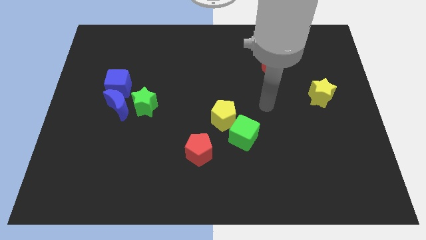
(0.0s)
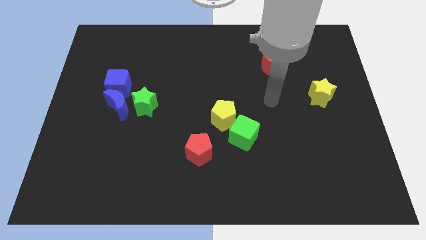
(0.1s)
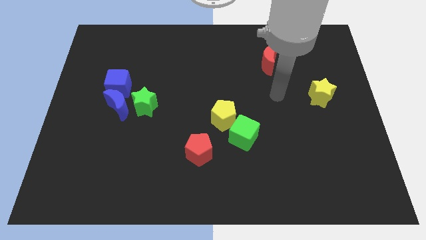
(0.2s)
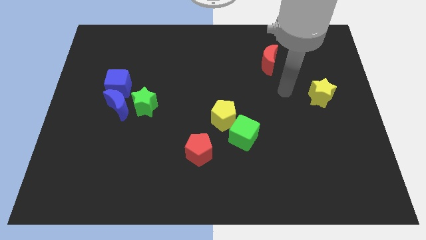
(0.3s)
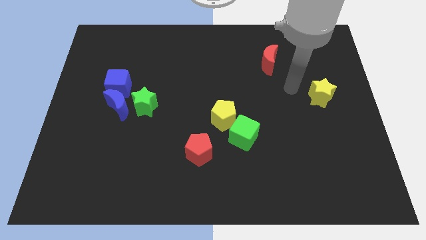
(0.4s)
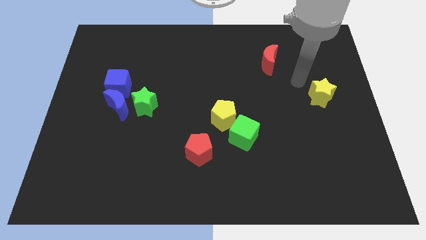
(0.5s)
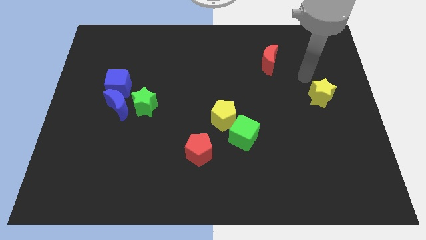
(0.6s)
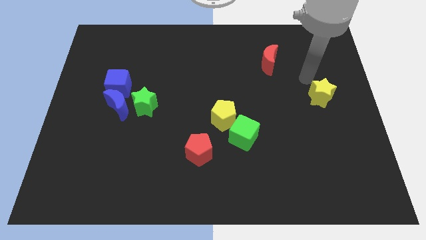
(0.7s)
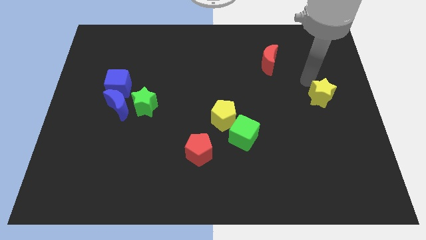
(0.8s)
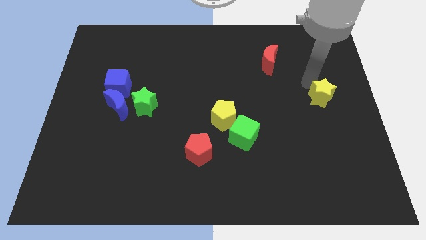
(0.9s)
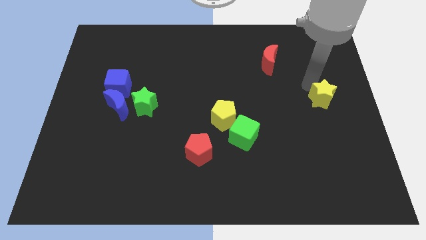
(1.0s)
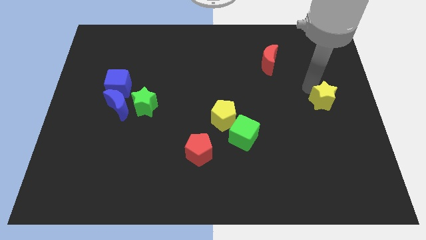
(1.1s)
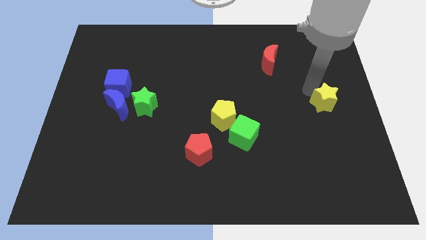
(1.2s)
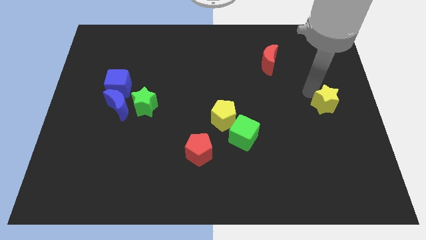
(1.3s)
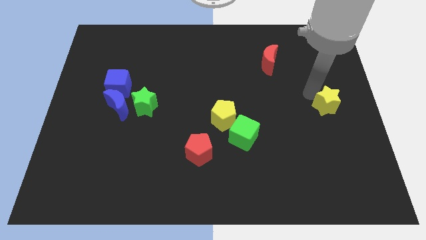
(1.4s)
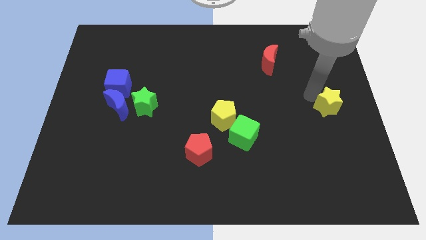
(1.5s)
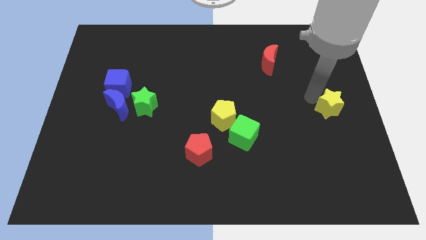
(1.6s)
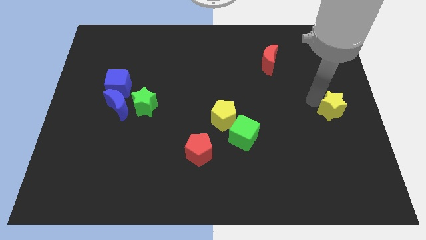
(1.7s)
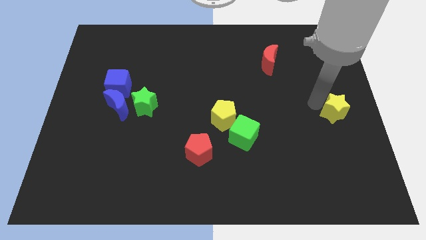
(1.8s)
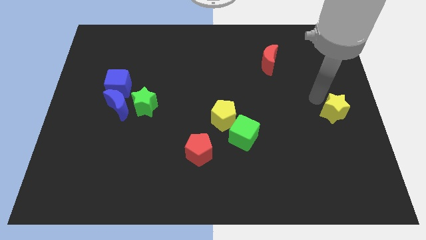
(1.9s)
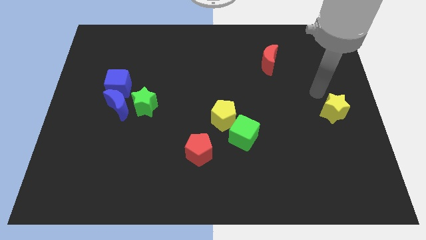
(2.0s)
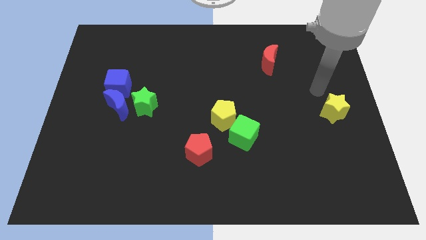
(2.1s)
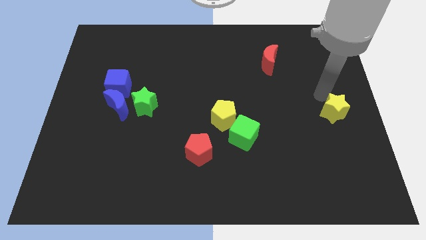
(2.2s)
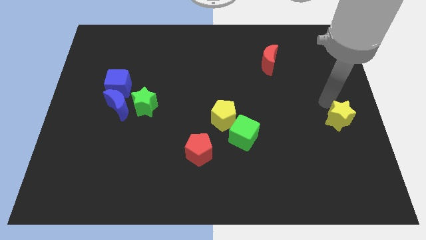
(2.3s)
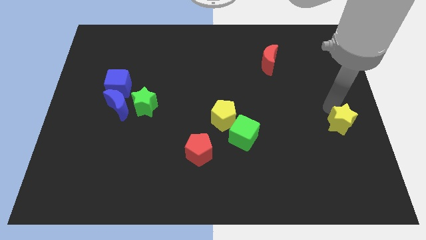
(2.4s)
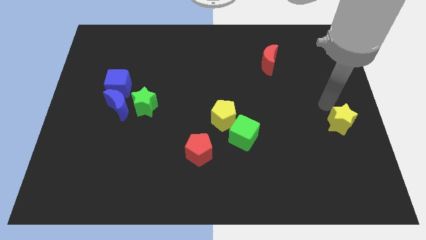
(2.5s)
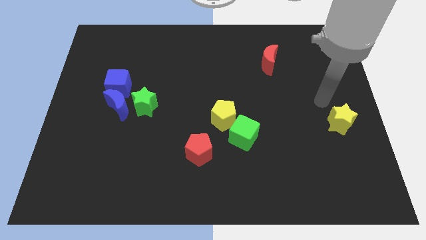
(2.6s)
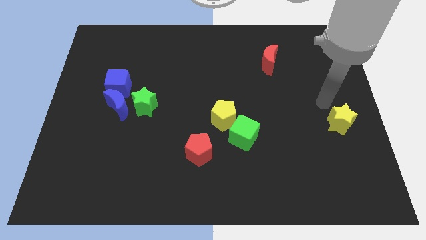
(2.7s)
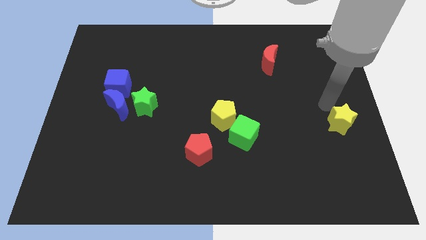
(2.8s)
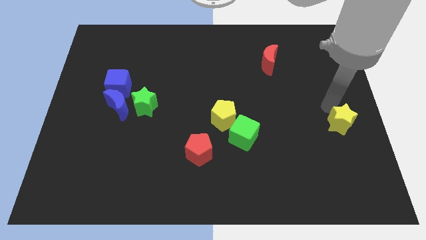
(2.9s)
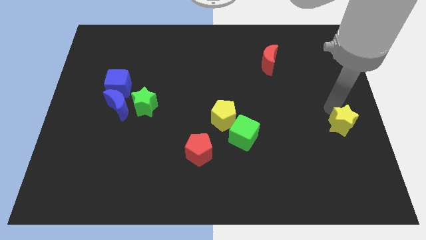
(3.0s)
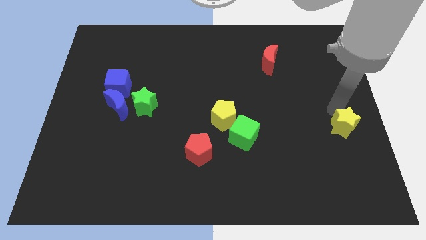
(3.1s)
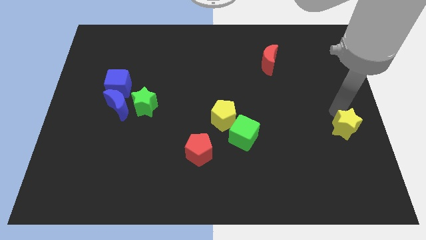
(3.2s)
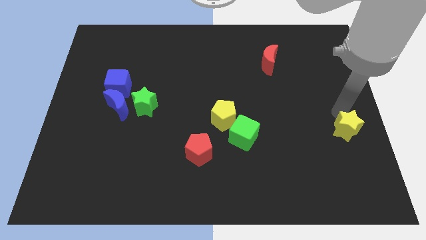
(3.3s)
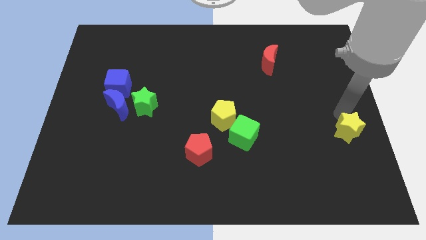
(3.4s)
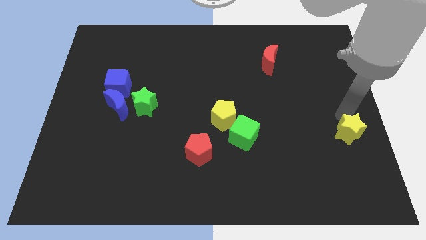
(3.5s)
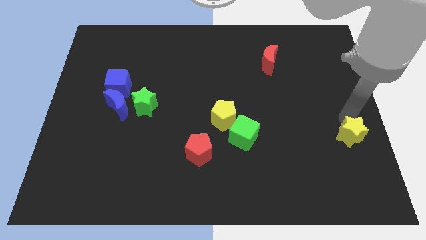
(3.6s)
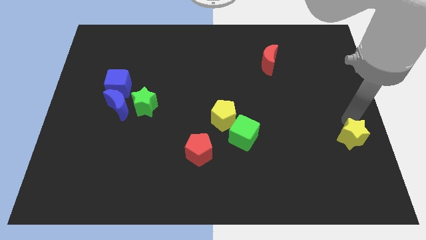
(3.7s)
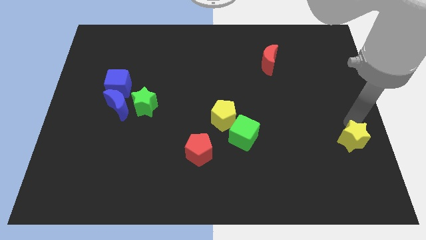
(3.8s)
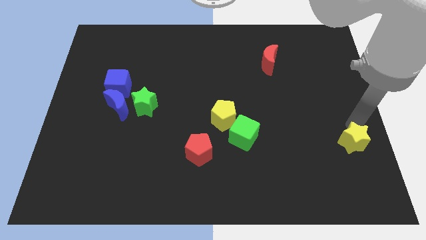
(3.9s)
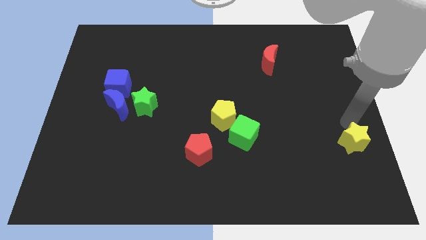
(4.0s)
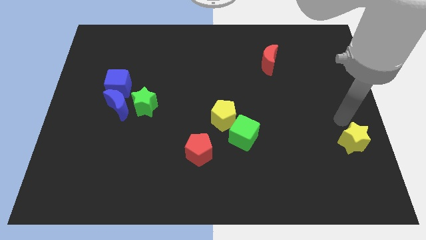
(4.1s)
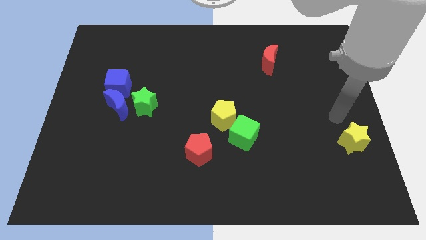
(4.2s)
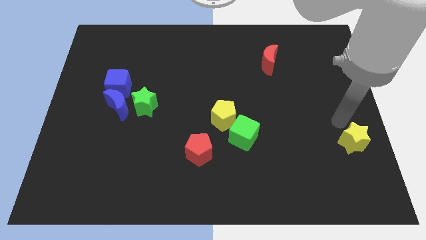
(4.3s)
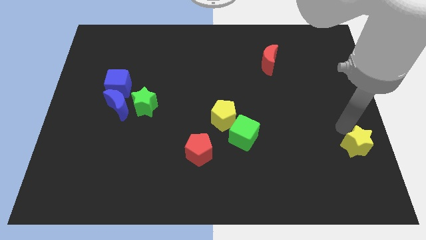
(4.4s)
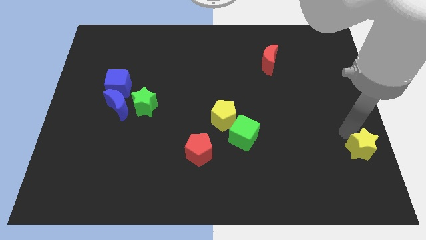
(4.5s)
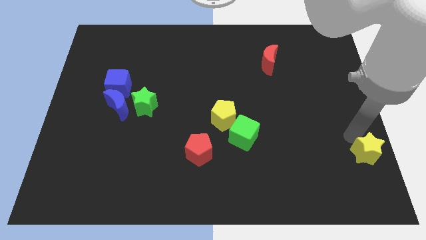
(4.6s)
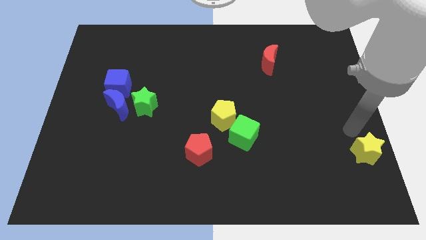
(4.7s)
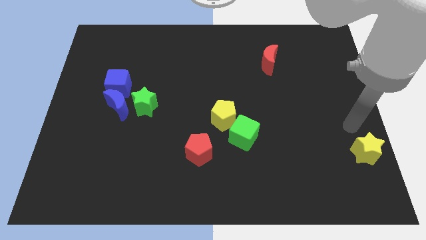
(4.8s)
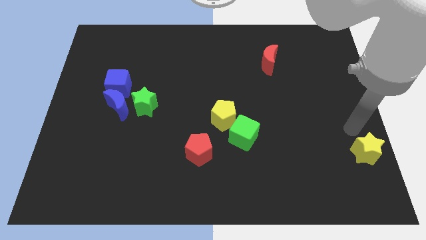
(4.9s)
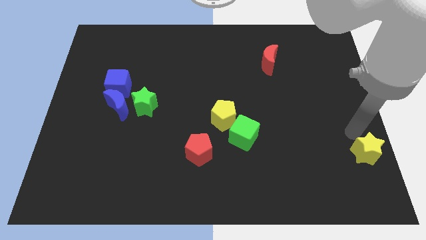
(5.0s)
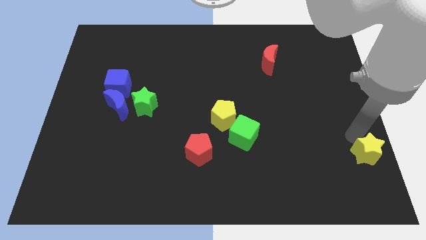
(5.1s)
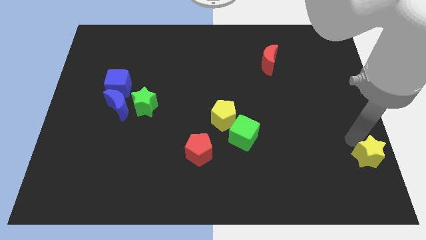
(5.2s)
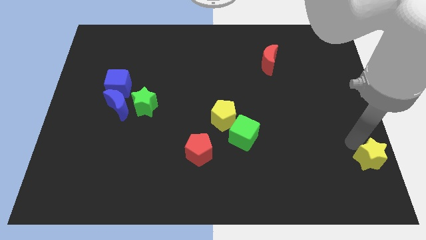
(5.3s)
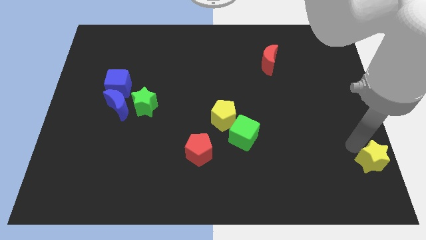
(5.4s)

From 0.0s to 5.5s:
put the yellow star to the bottom right corner

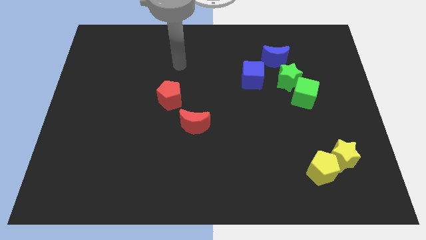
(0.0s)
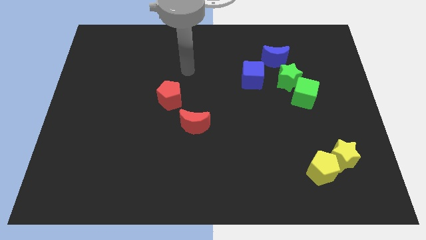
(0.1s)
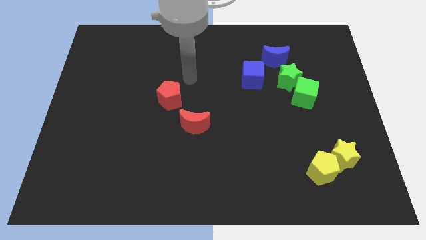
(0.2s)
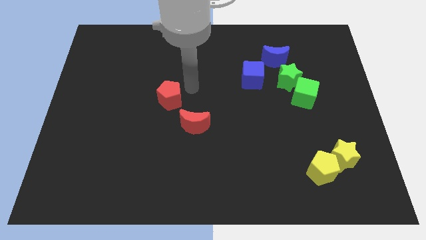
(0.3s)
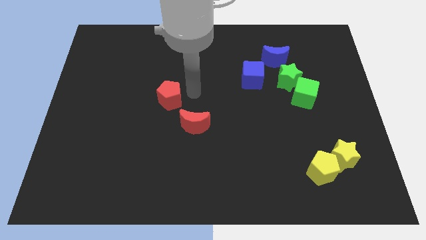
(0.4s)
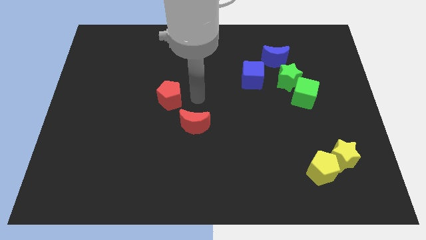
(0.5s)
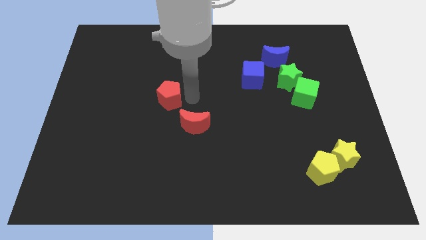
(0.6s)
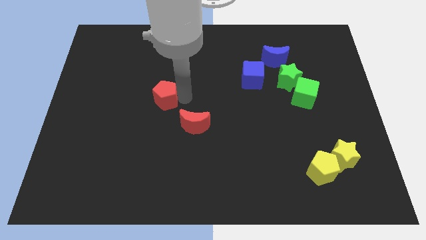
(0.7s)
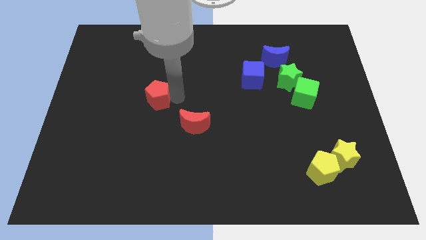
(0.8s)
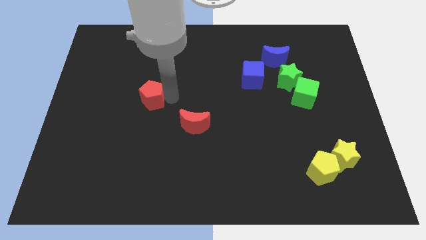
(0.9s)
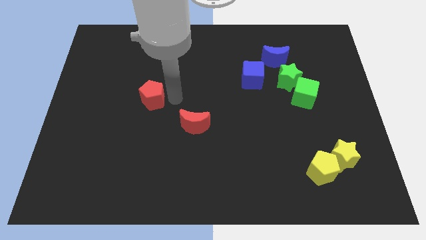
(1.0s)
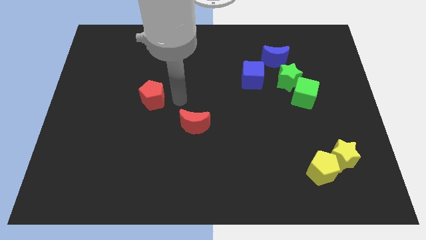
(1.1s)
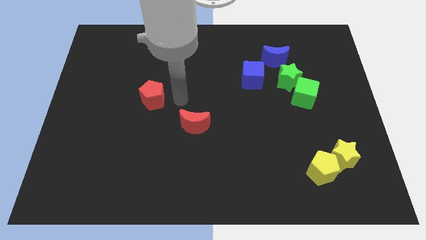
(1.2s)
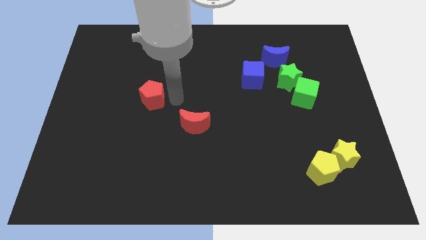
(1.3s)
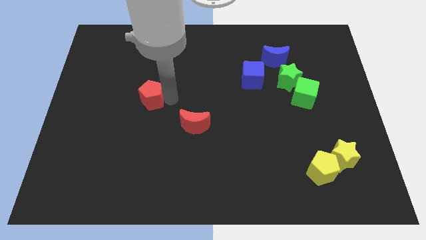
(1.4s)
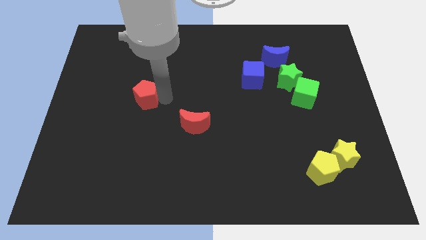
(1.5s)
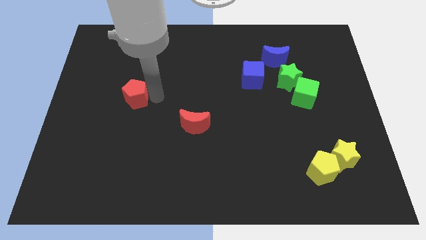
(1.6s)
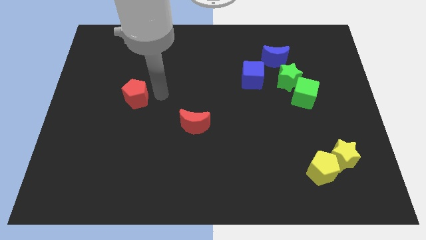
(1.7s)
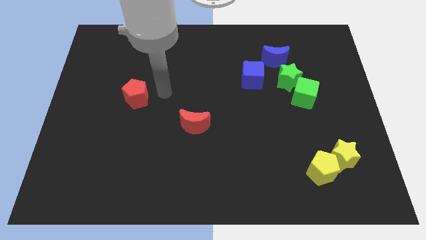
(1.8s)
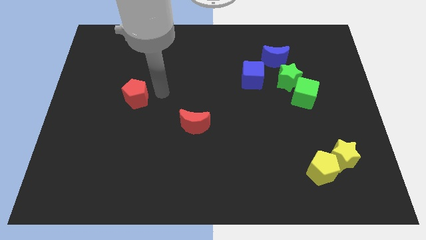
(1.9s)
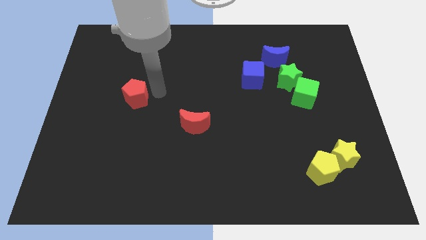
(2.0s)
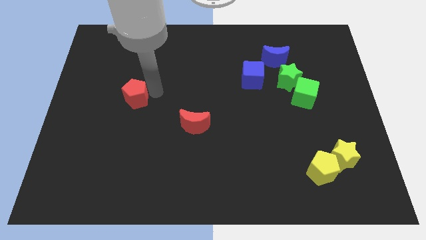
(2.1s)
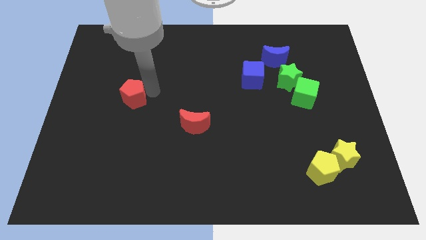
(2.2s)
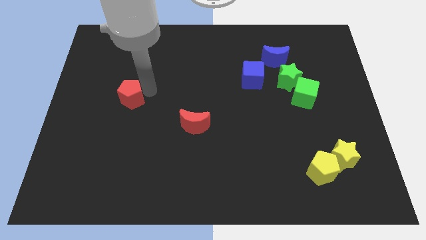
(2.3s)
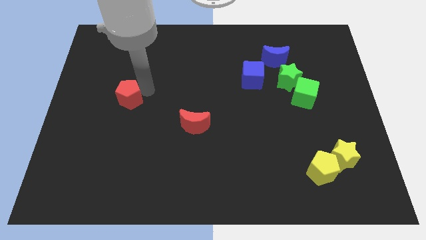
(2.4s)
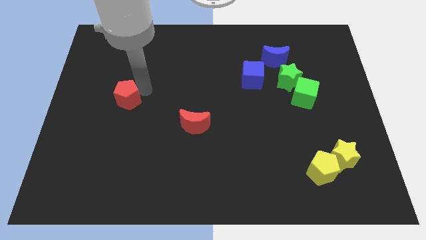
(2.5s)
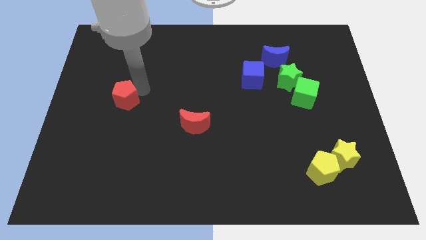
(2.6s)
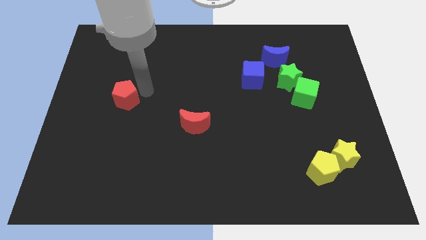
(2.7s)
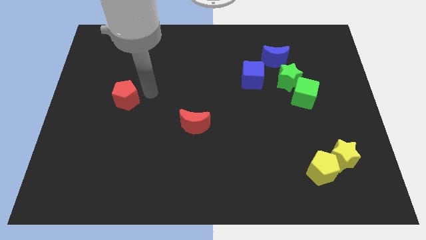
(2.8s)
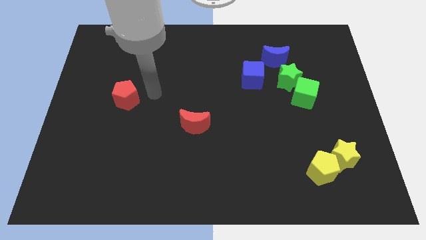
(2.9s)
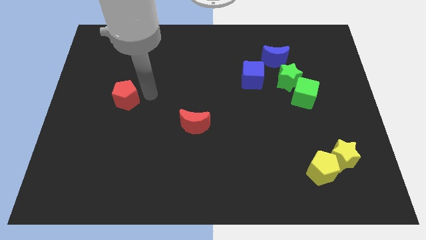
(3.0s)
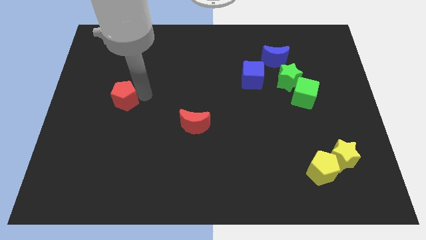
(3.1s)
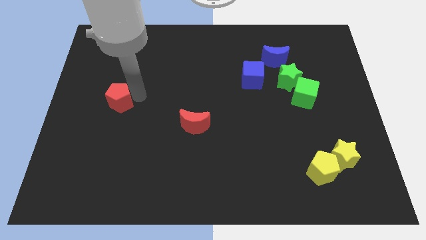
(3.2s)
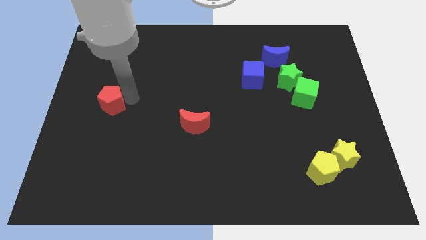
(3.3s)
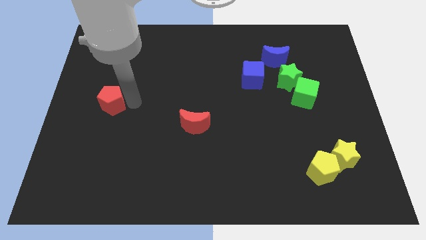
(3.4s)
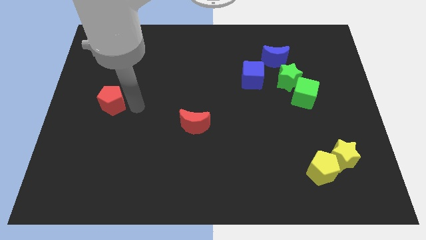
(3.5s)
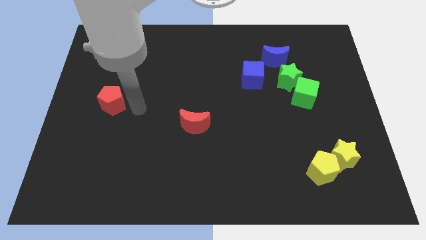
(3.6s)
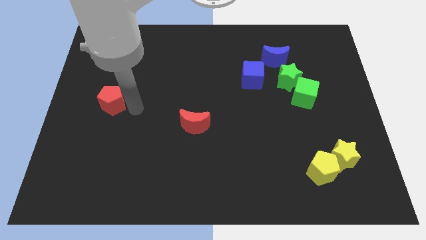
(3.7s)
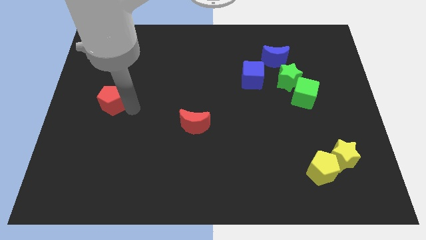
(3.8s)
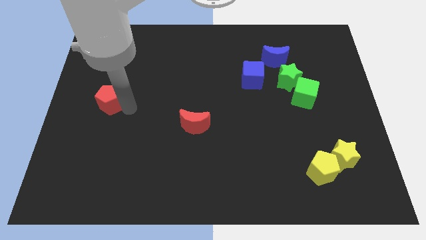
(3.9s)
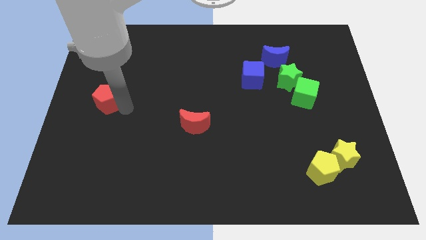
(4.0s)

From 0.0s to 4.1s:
push the red pentagon to the center left
